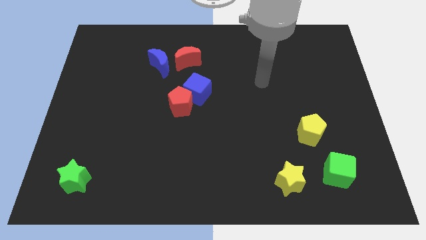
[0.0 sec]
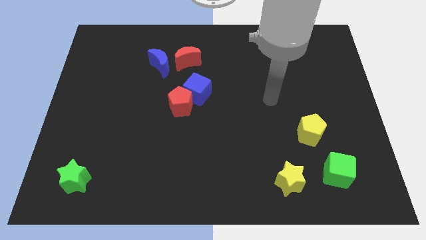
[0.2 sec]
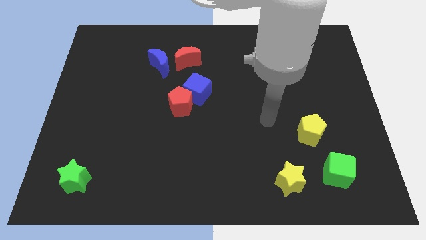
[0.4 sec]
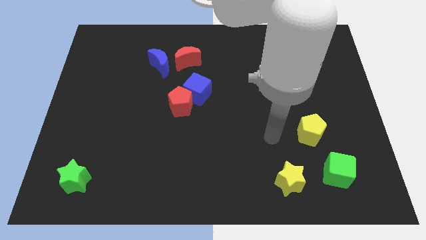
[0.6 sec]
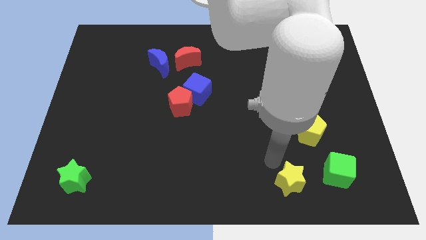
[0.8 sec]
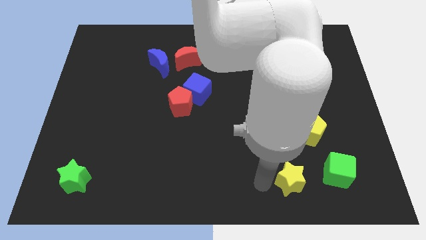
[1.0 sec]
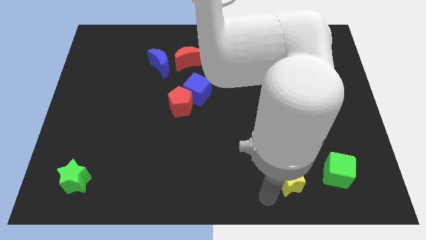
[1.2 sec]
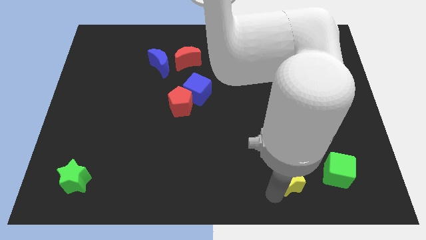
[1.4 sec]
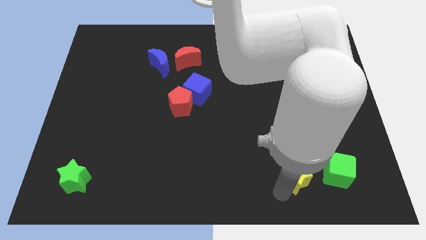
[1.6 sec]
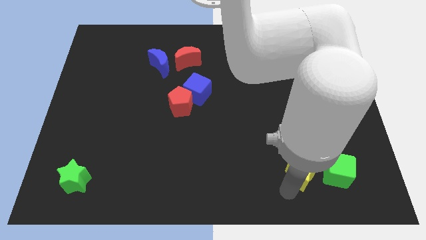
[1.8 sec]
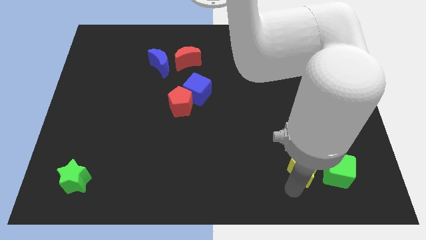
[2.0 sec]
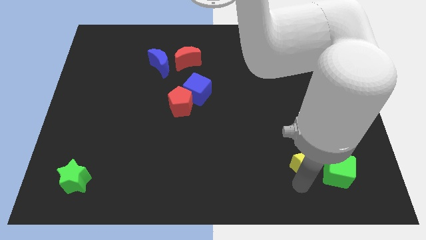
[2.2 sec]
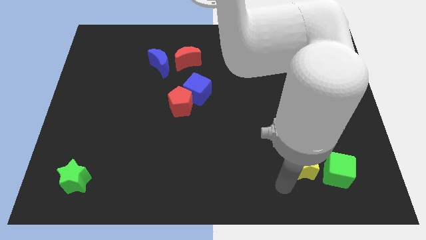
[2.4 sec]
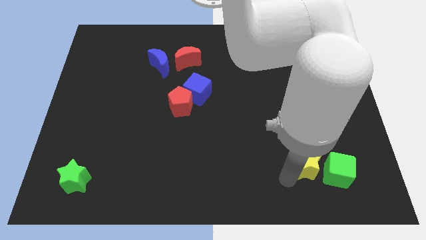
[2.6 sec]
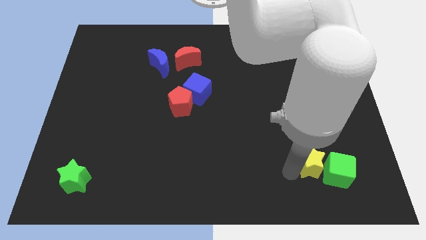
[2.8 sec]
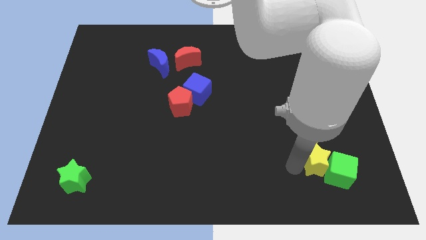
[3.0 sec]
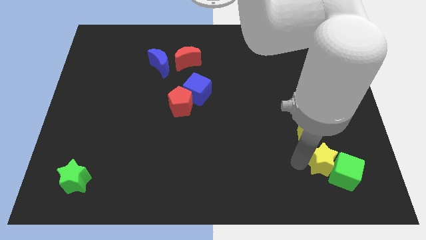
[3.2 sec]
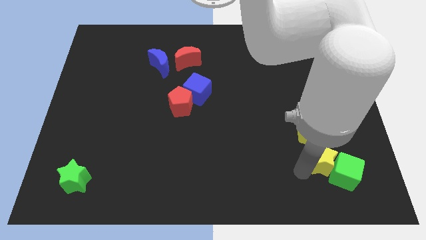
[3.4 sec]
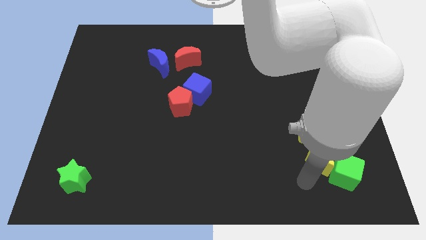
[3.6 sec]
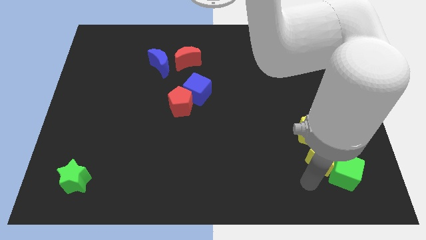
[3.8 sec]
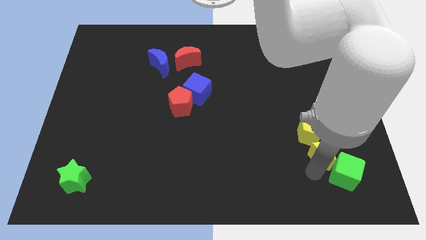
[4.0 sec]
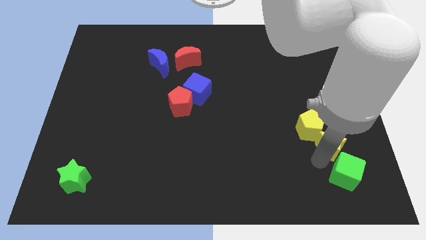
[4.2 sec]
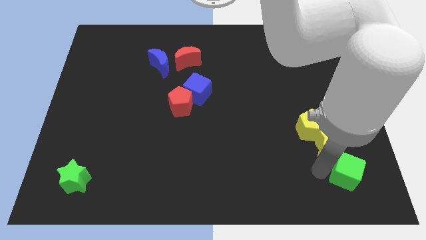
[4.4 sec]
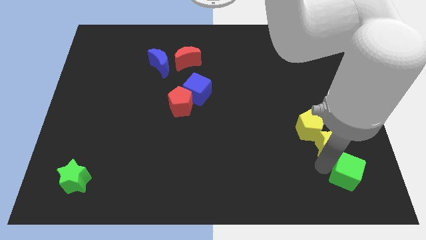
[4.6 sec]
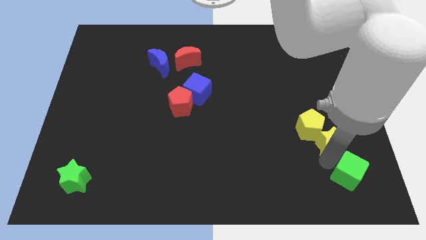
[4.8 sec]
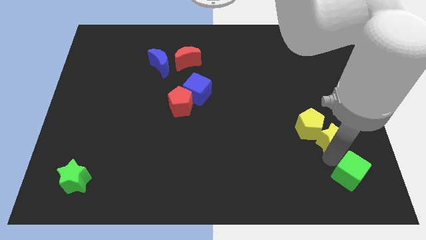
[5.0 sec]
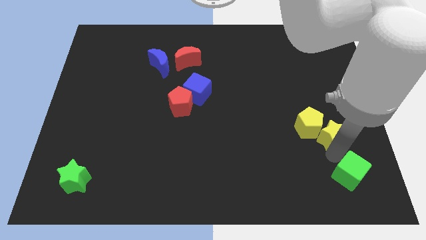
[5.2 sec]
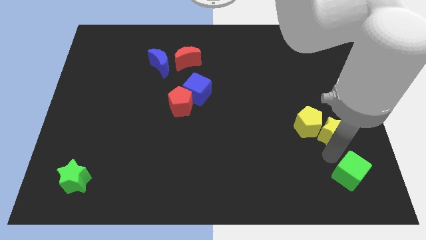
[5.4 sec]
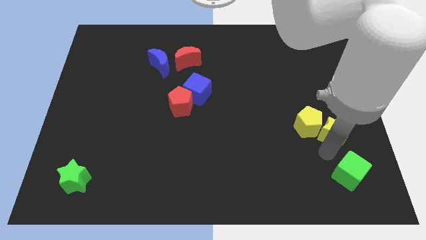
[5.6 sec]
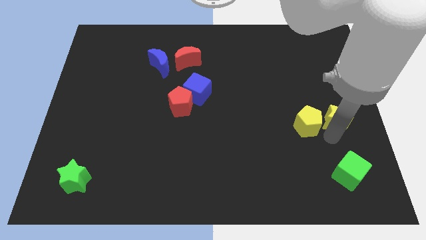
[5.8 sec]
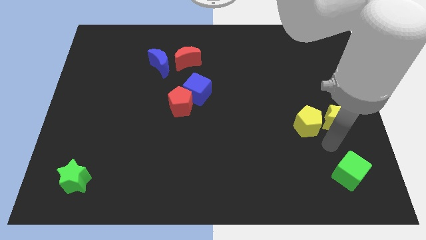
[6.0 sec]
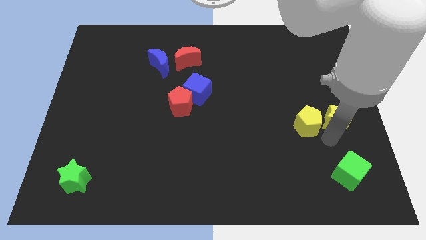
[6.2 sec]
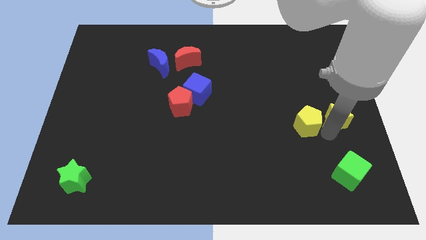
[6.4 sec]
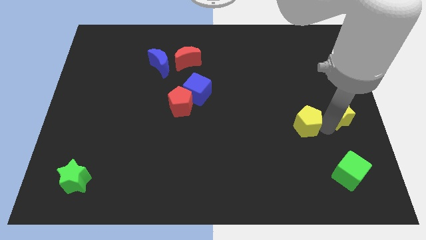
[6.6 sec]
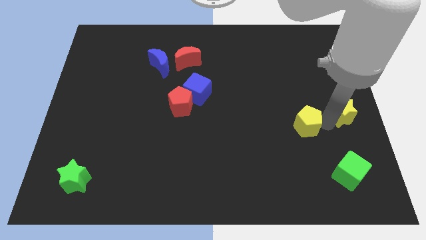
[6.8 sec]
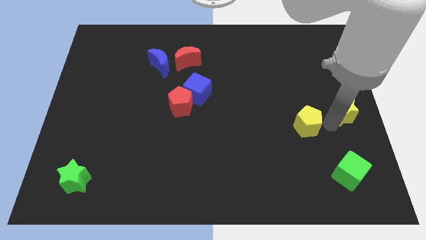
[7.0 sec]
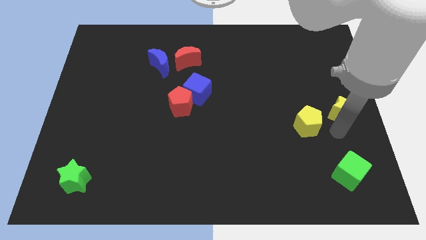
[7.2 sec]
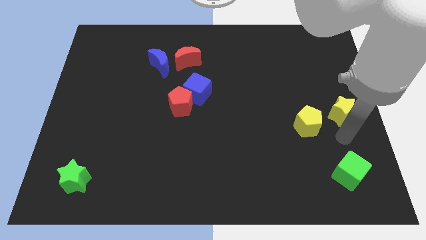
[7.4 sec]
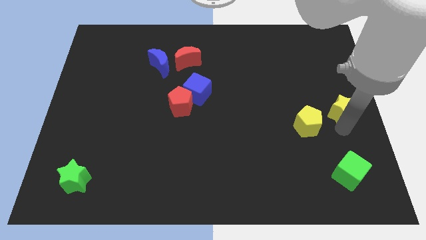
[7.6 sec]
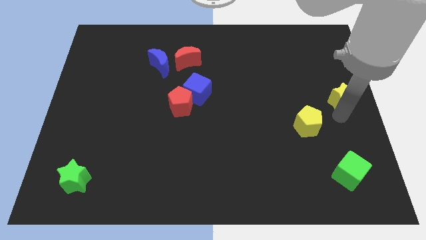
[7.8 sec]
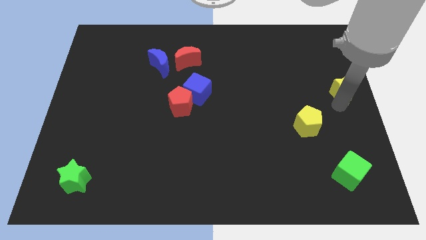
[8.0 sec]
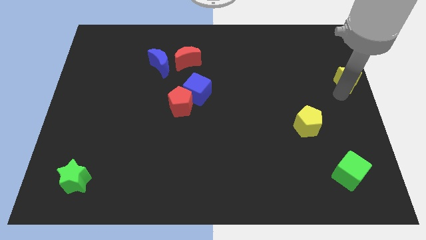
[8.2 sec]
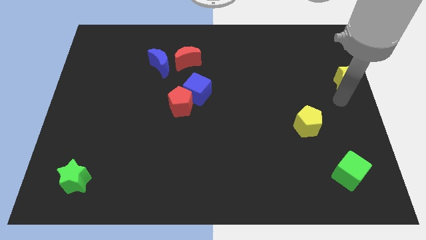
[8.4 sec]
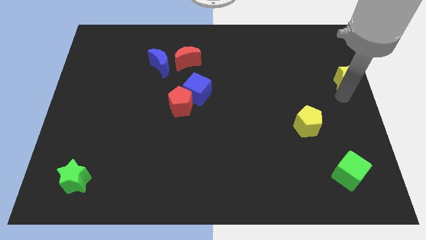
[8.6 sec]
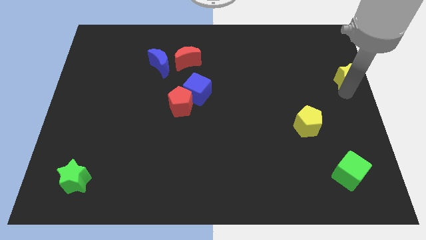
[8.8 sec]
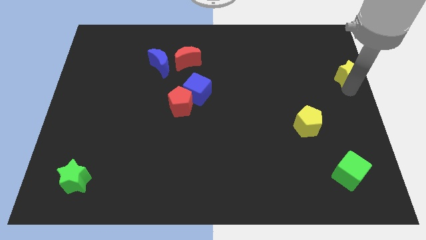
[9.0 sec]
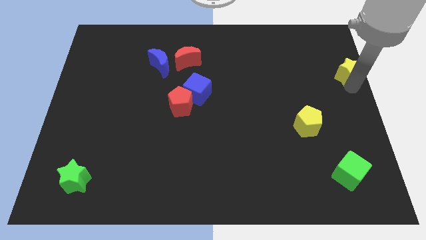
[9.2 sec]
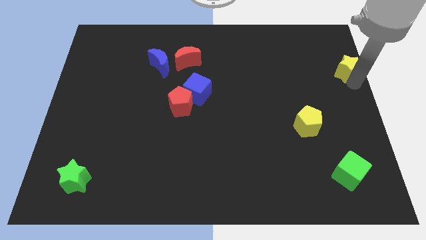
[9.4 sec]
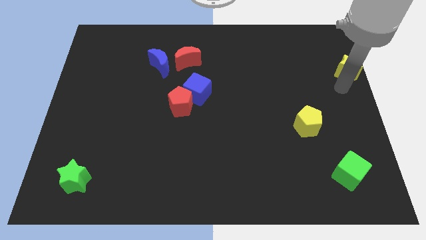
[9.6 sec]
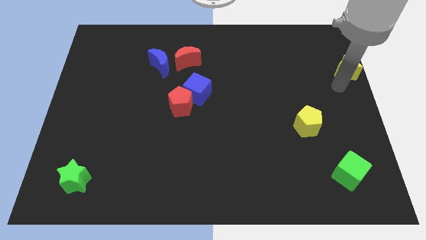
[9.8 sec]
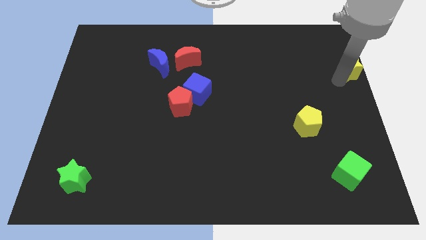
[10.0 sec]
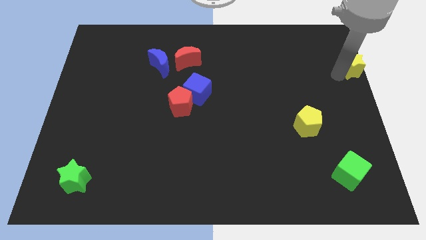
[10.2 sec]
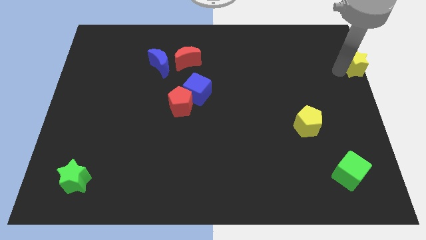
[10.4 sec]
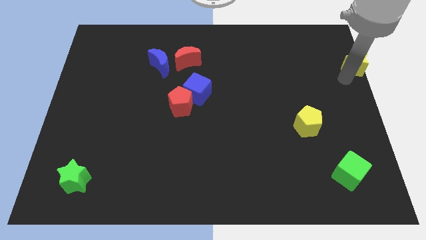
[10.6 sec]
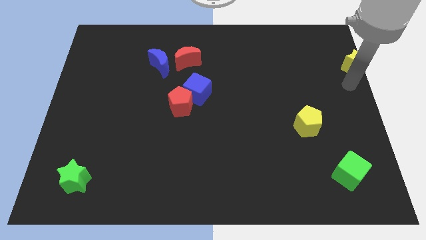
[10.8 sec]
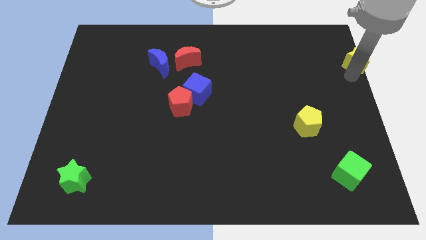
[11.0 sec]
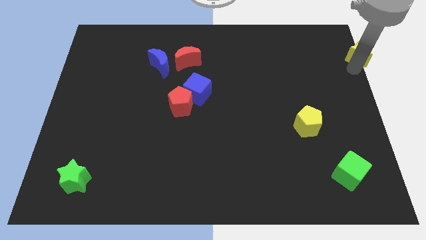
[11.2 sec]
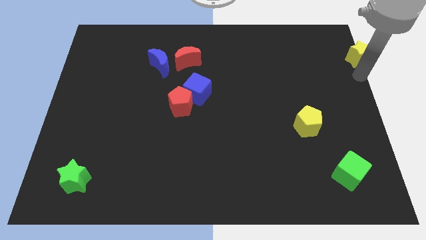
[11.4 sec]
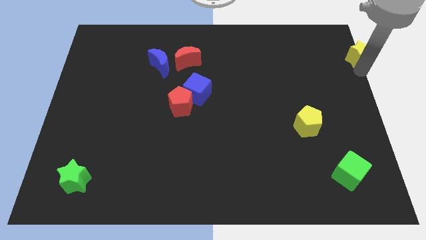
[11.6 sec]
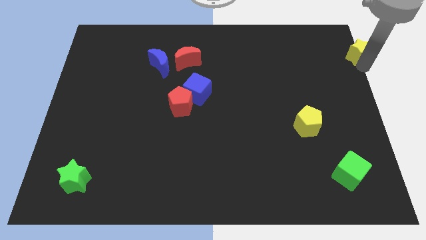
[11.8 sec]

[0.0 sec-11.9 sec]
put the yellow star to the top right of the board
